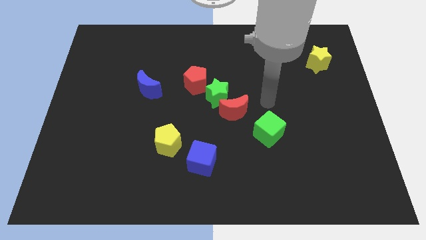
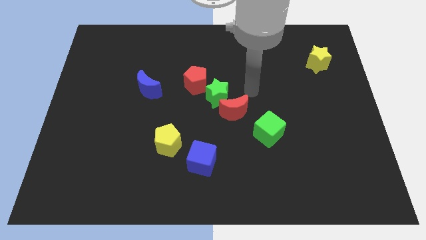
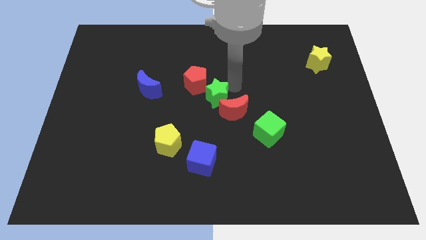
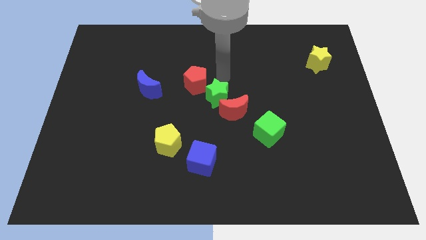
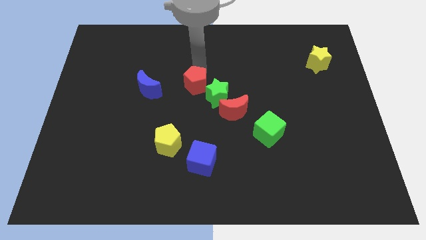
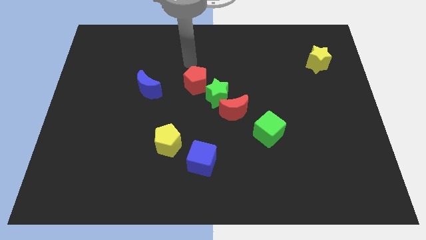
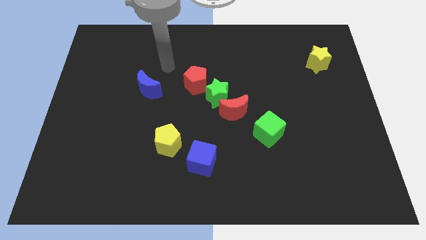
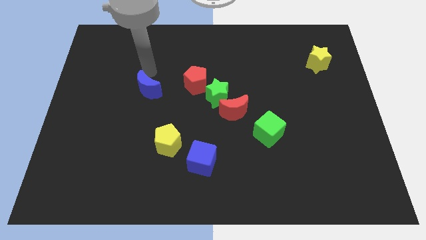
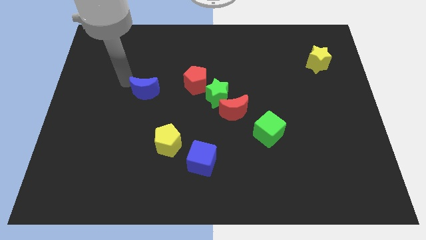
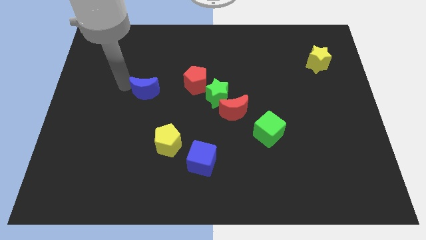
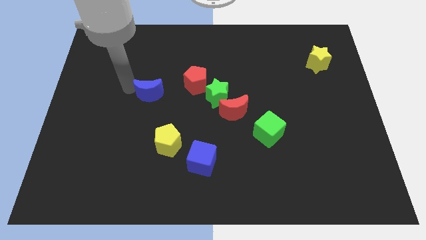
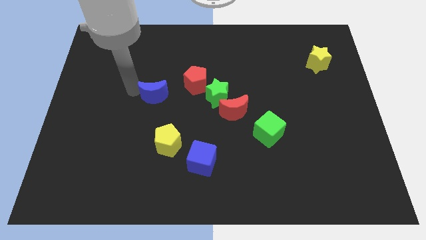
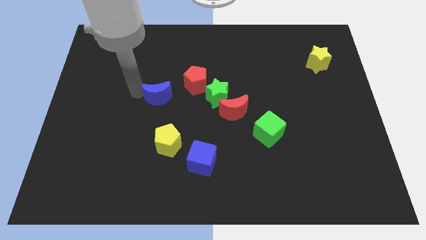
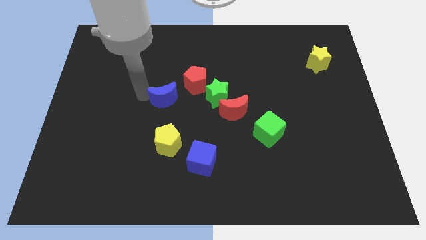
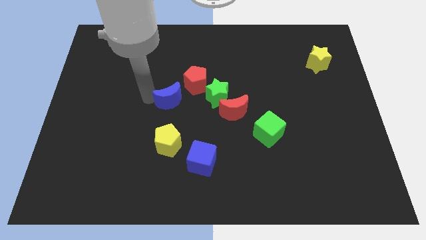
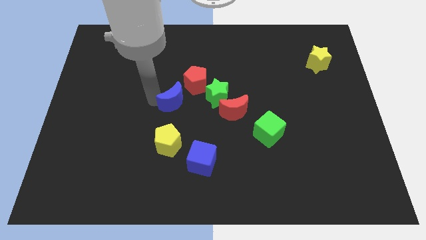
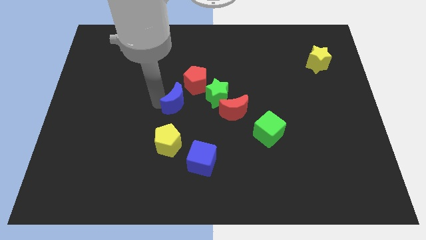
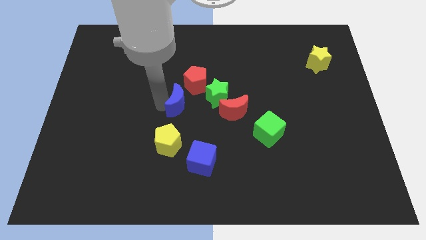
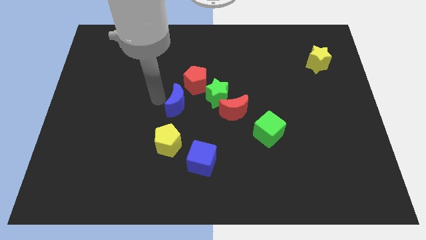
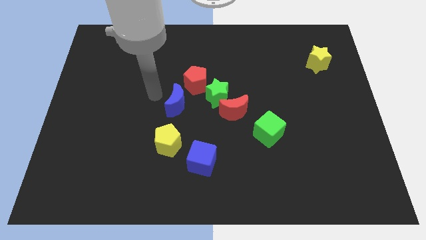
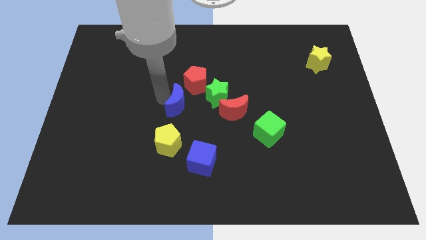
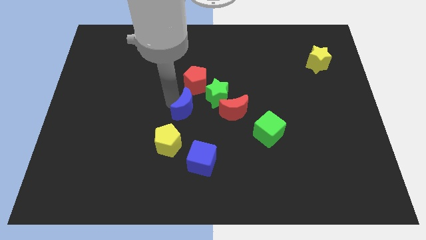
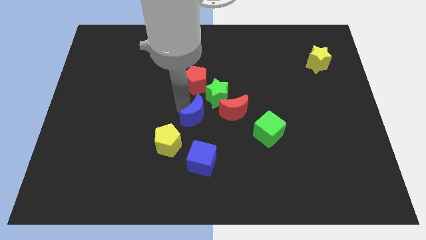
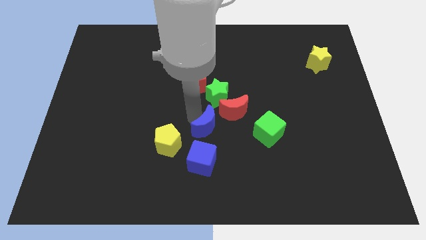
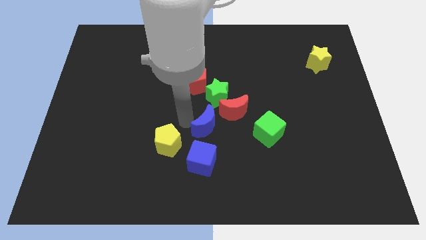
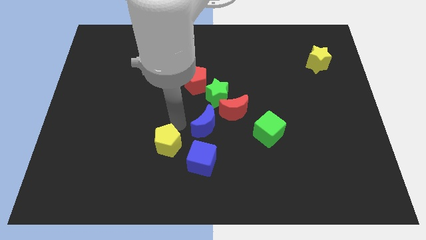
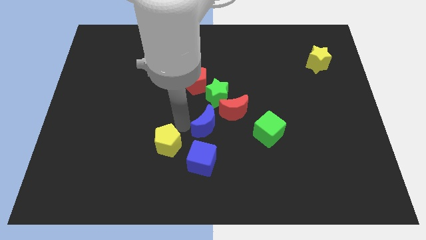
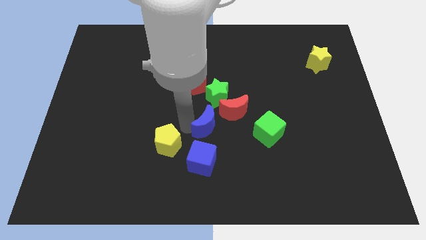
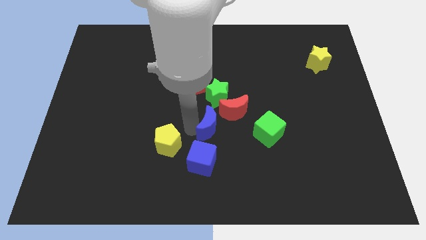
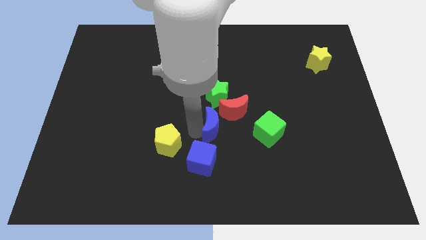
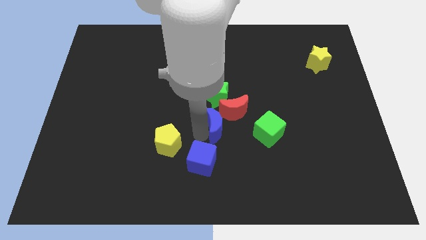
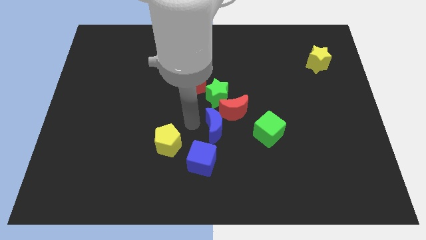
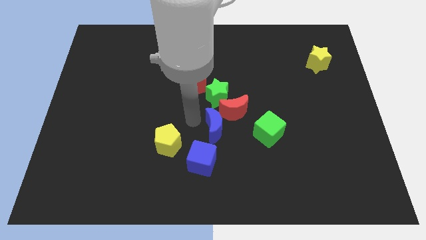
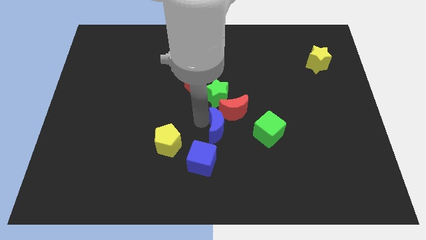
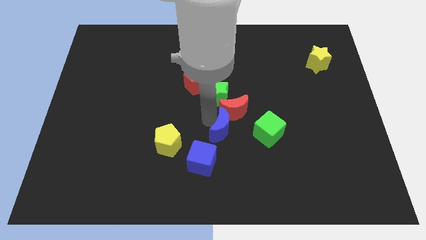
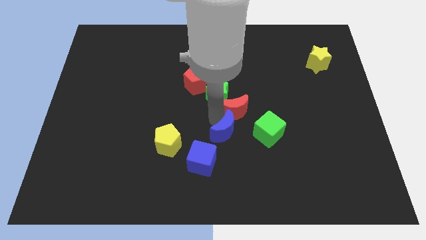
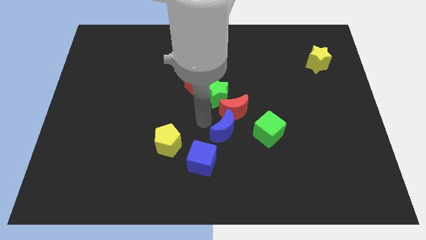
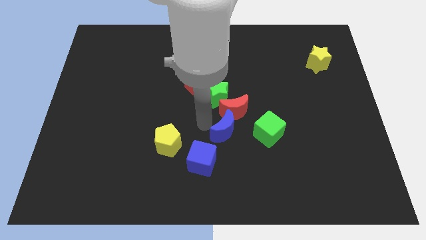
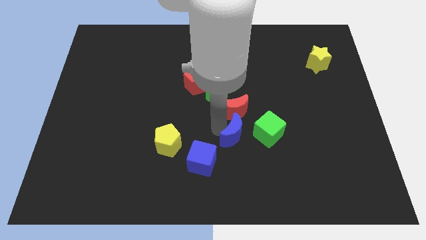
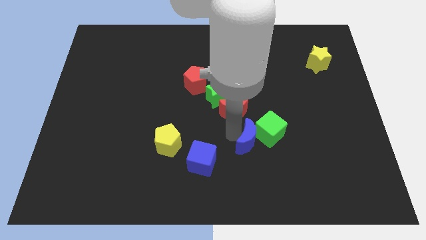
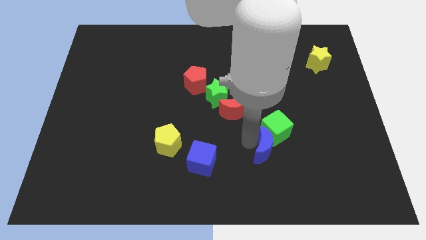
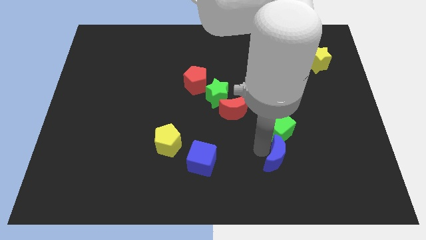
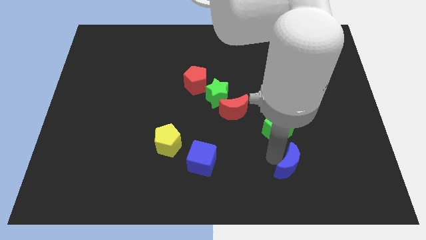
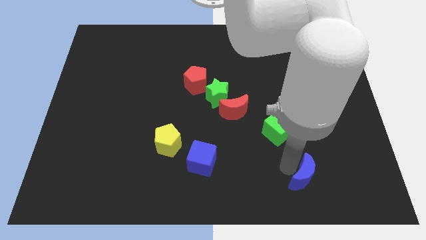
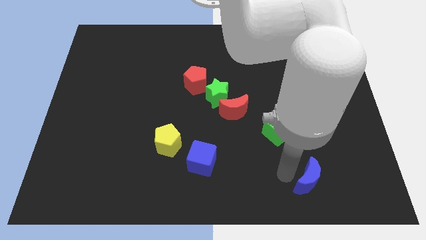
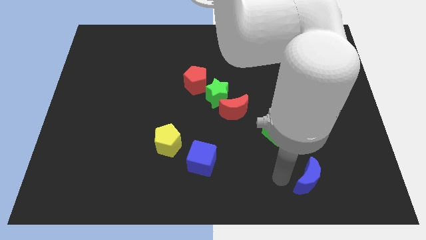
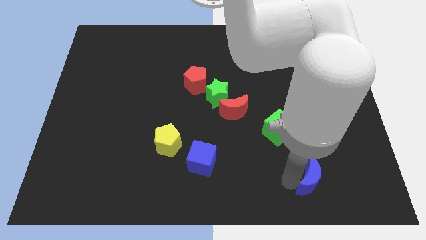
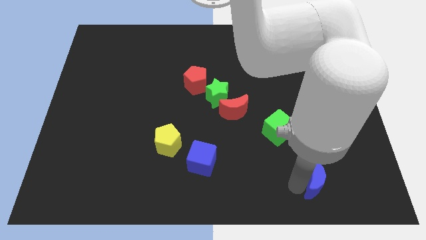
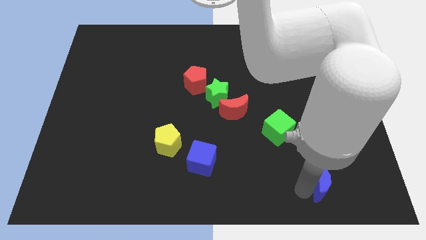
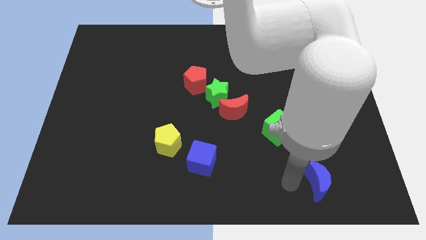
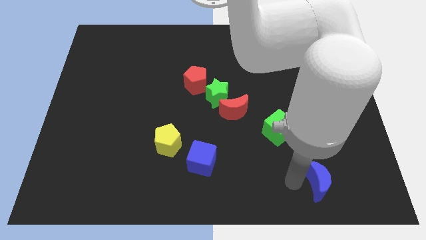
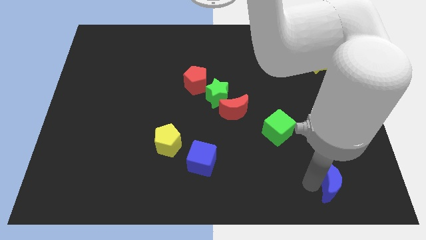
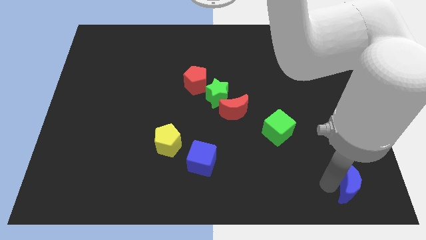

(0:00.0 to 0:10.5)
push the blue moon to the bottom right

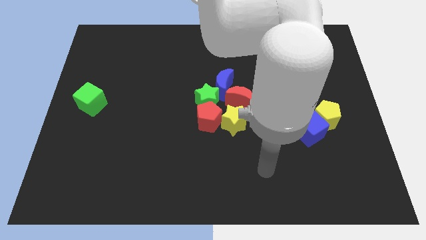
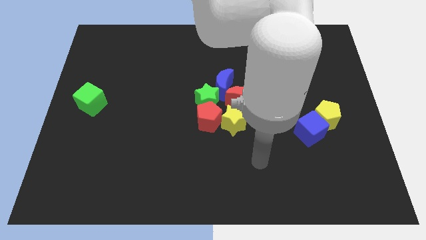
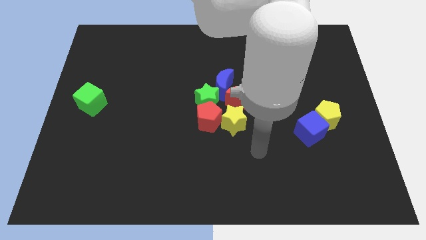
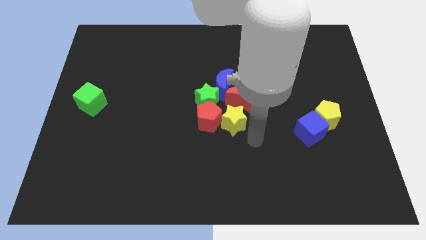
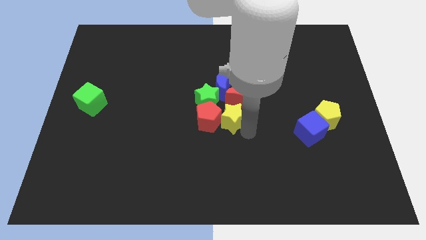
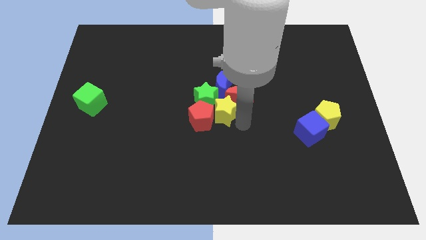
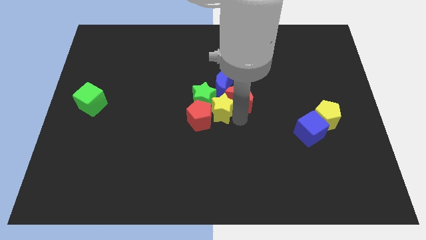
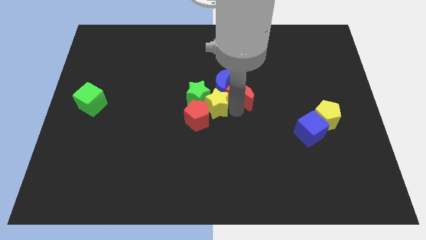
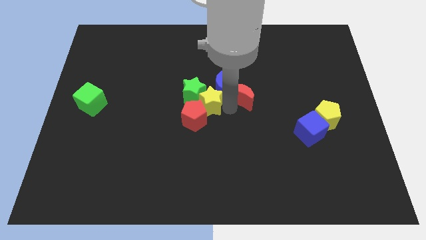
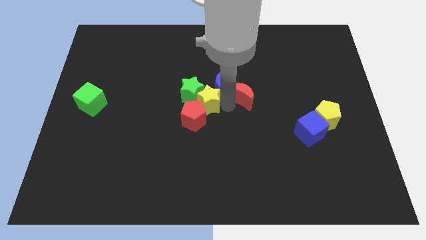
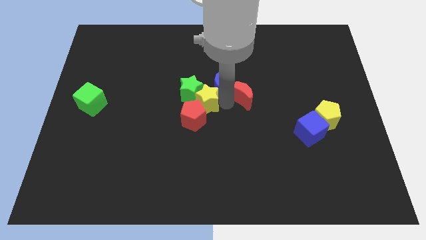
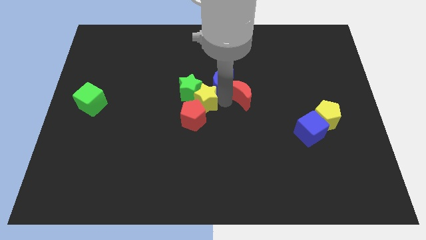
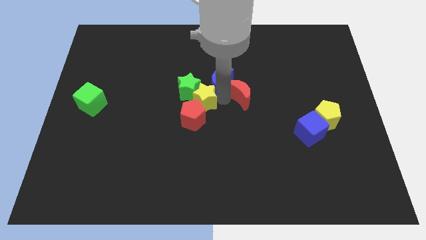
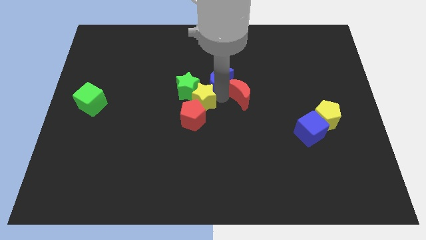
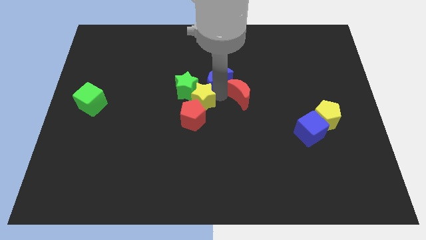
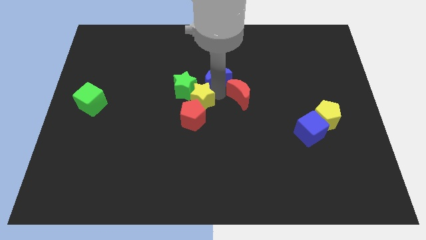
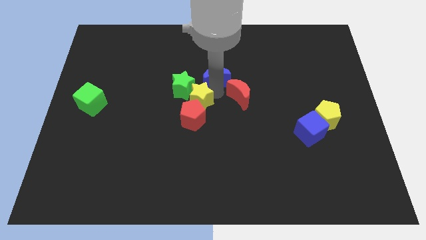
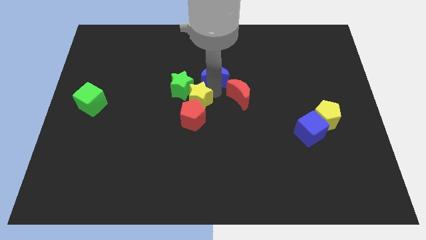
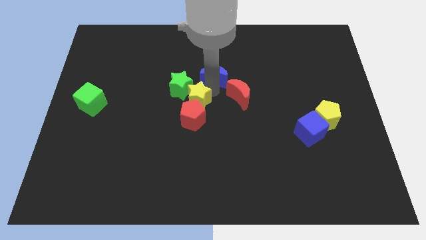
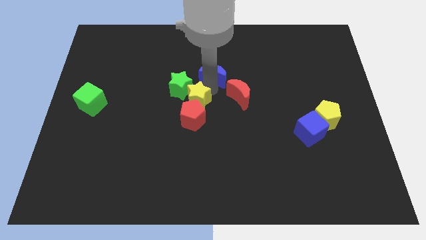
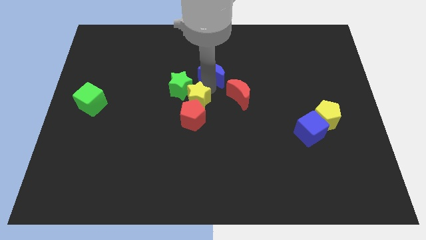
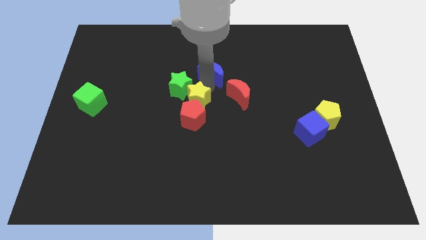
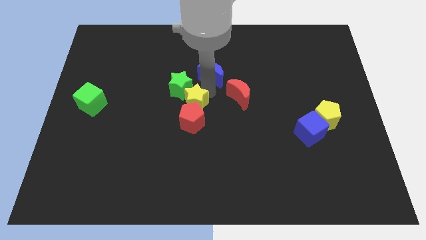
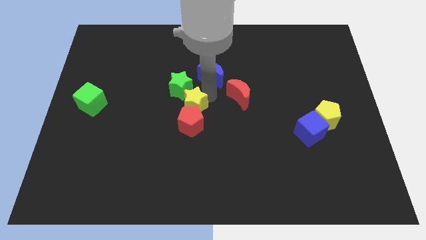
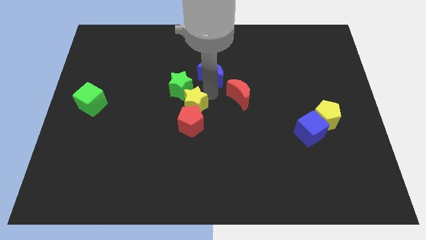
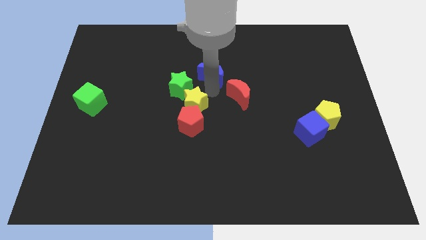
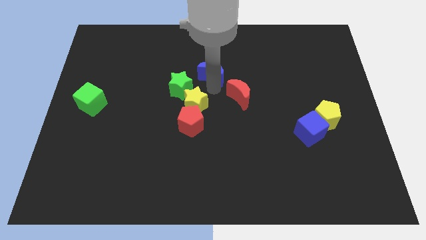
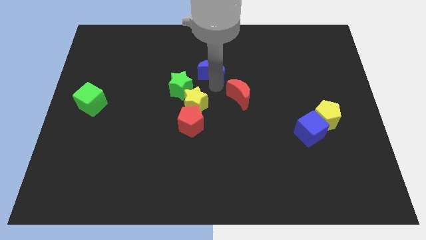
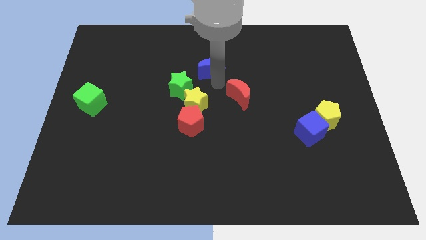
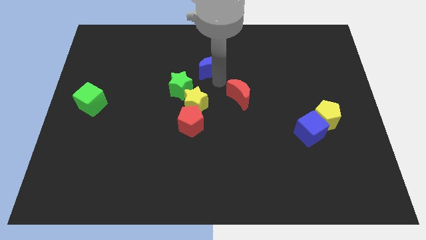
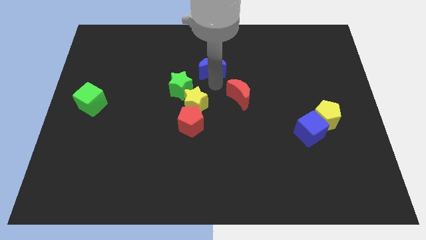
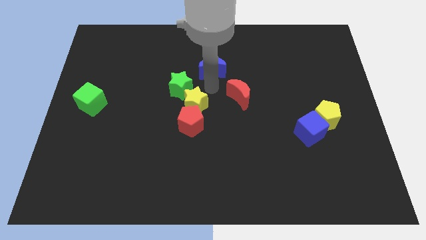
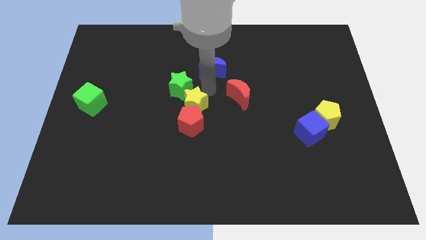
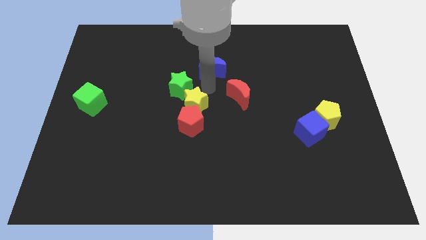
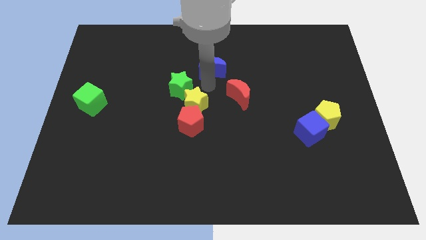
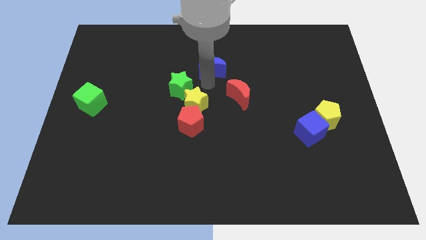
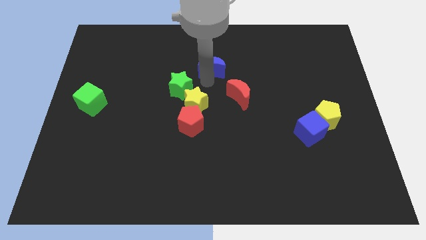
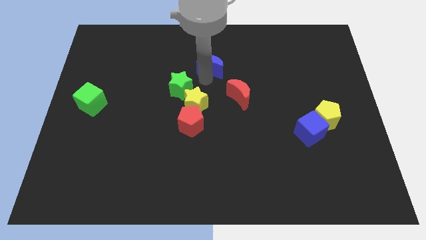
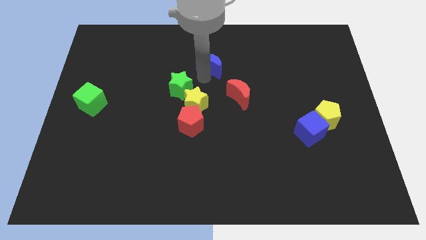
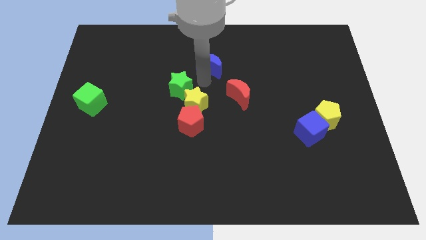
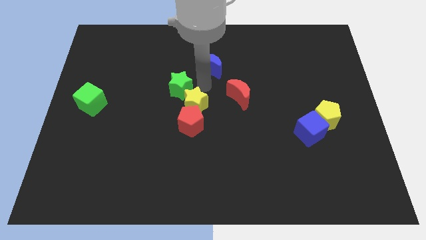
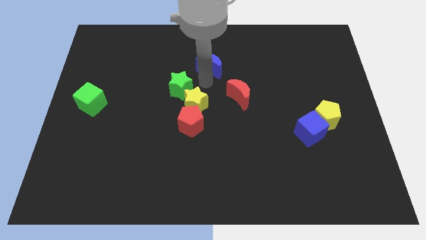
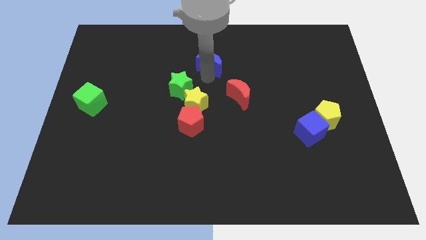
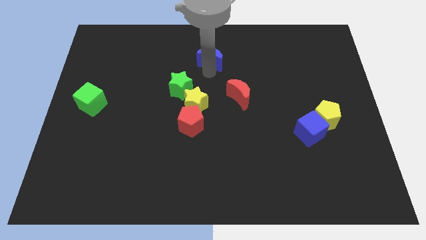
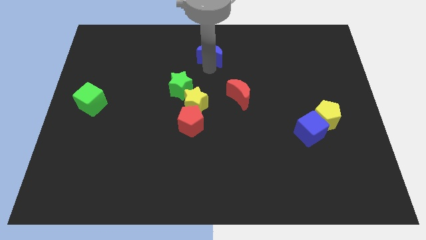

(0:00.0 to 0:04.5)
slide the blue moon to the top
